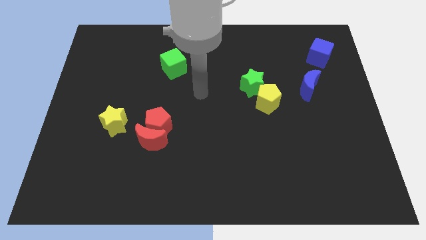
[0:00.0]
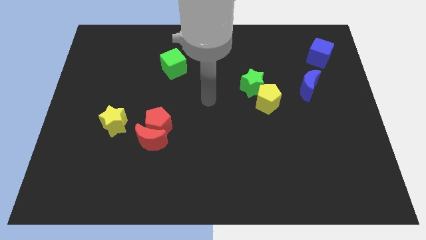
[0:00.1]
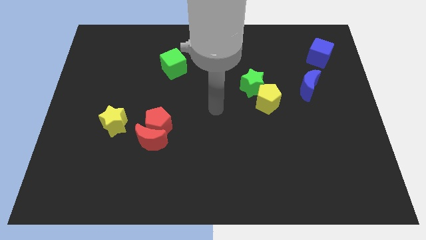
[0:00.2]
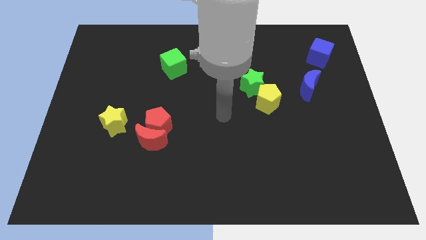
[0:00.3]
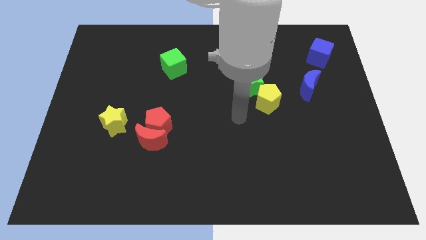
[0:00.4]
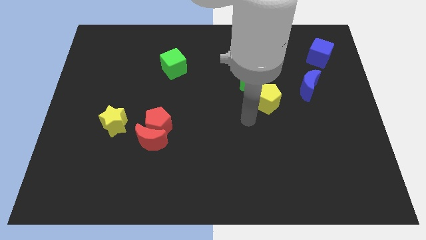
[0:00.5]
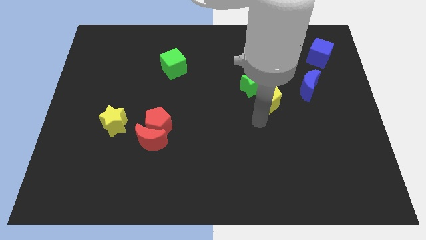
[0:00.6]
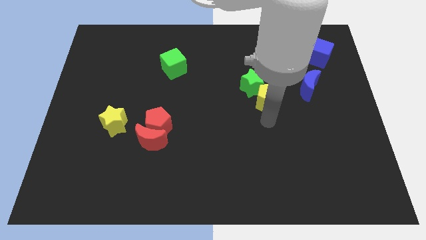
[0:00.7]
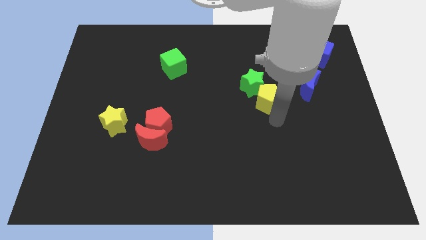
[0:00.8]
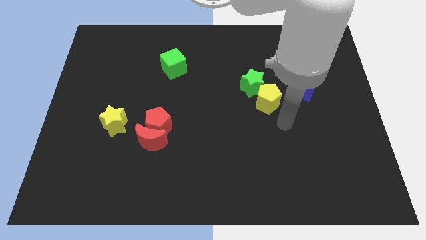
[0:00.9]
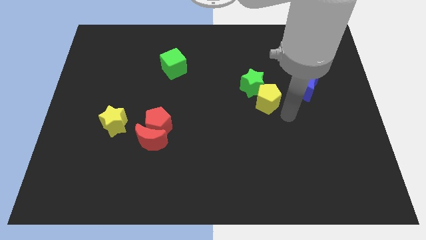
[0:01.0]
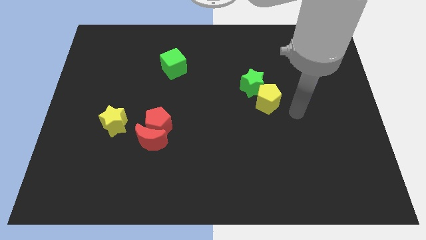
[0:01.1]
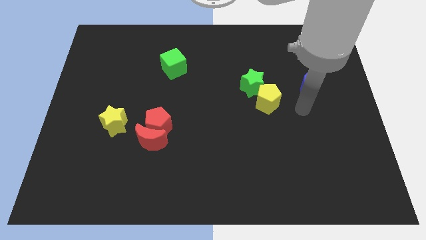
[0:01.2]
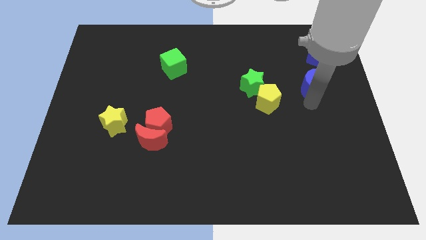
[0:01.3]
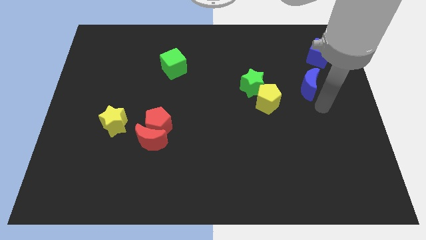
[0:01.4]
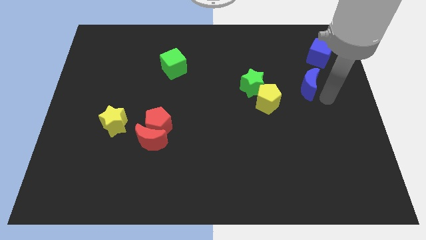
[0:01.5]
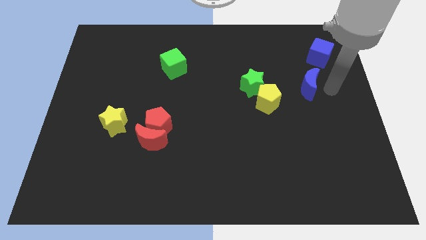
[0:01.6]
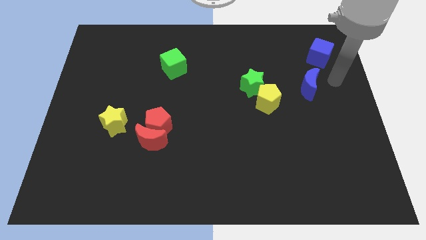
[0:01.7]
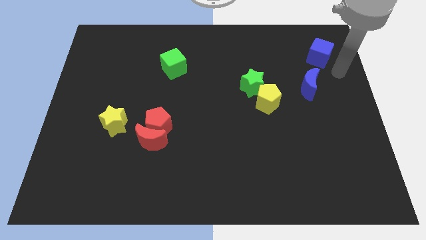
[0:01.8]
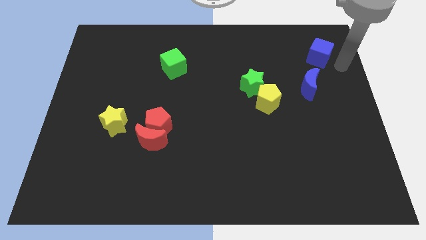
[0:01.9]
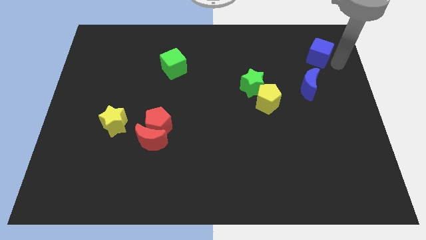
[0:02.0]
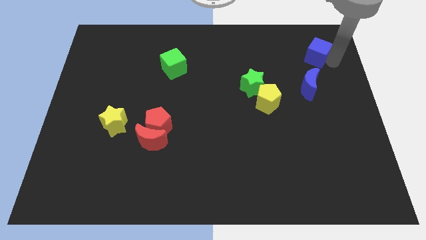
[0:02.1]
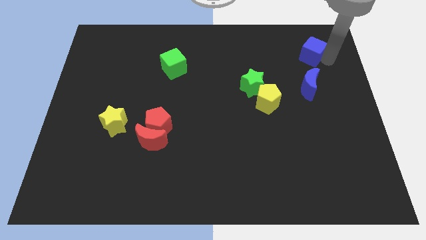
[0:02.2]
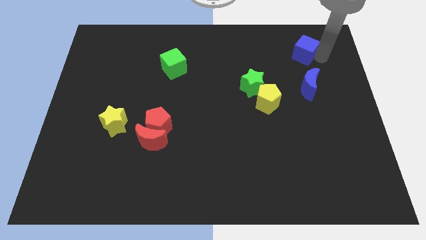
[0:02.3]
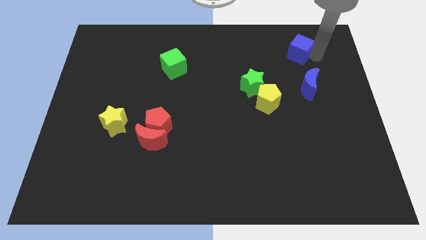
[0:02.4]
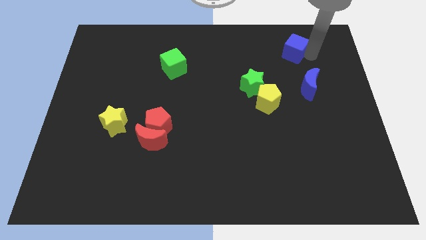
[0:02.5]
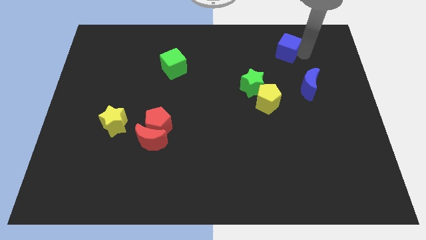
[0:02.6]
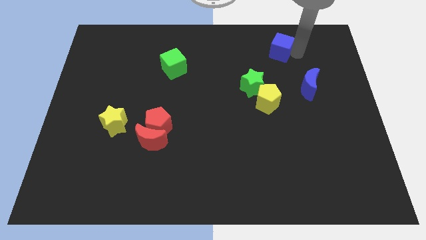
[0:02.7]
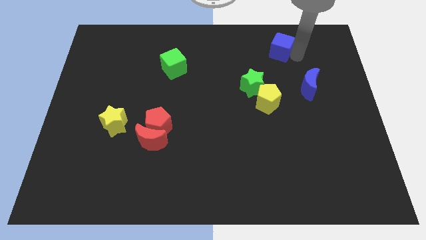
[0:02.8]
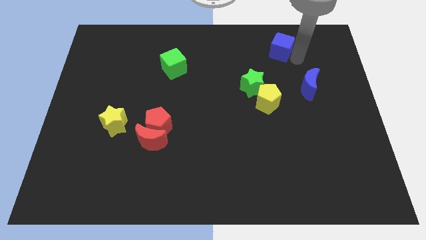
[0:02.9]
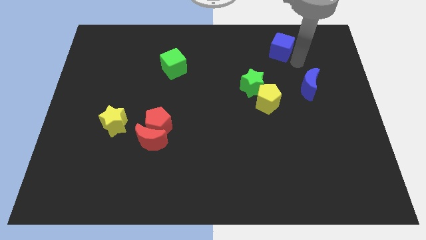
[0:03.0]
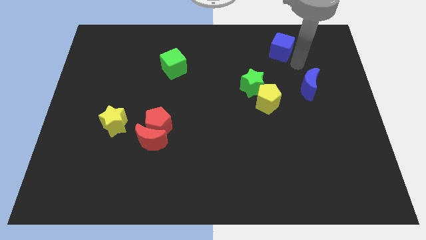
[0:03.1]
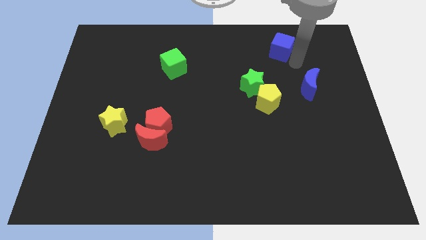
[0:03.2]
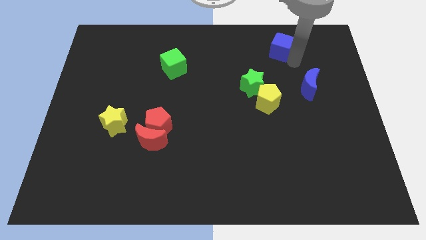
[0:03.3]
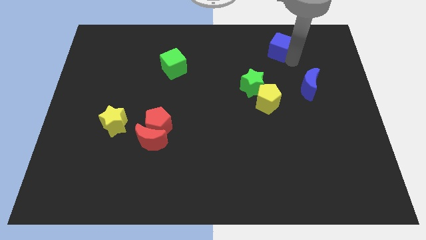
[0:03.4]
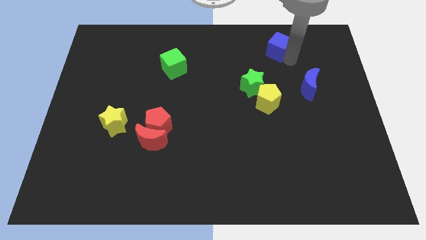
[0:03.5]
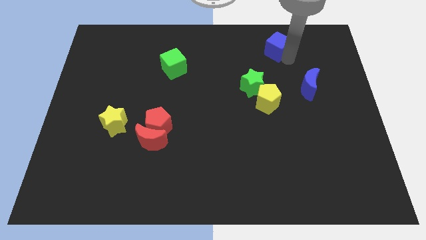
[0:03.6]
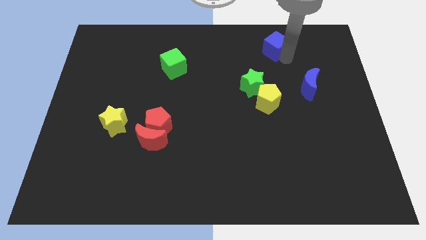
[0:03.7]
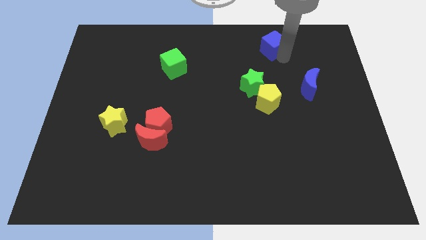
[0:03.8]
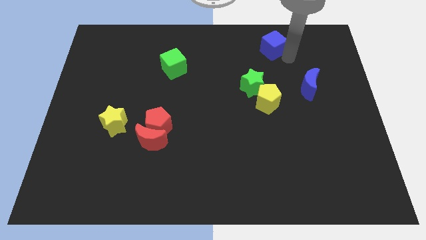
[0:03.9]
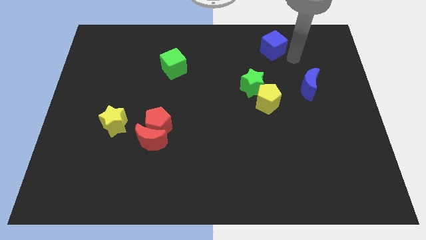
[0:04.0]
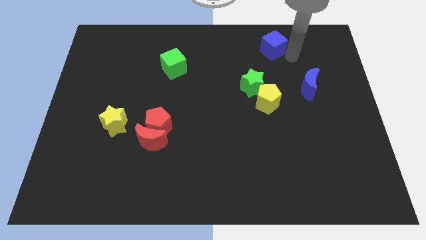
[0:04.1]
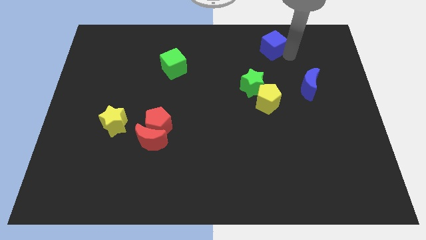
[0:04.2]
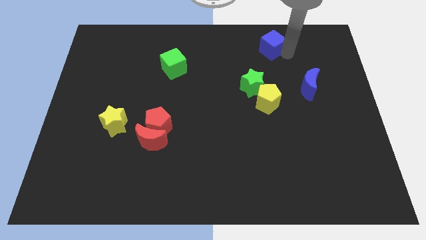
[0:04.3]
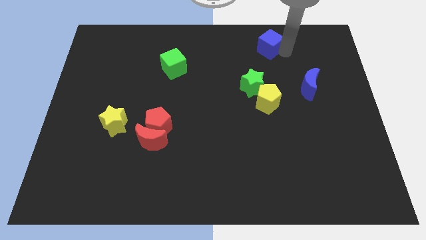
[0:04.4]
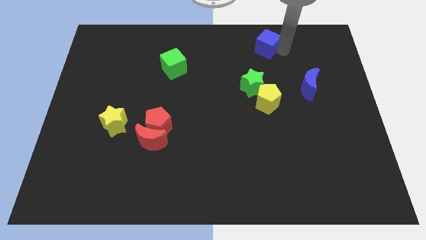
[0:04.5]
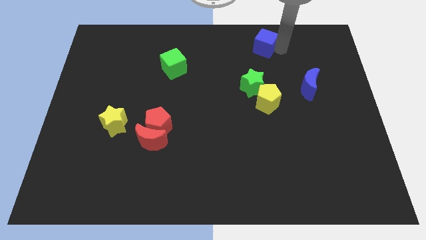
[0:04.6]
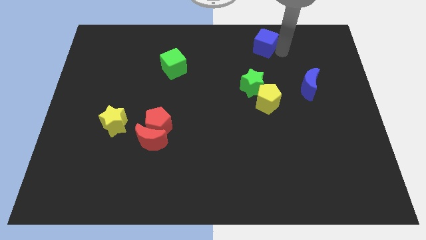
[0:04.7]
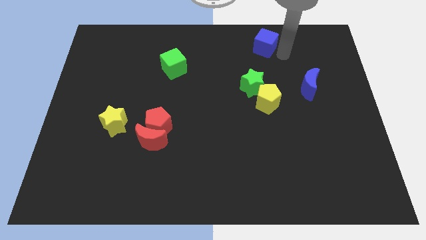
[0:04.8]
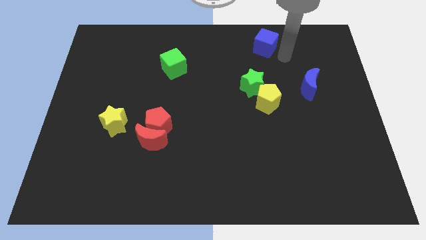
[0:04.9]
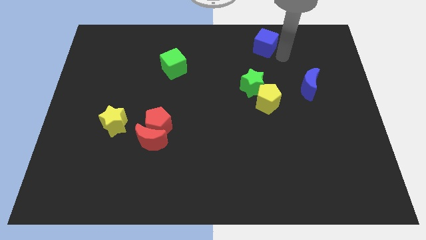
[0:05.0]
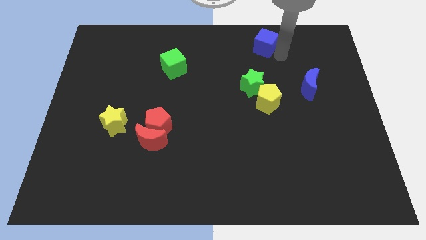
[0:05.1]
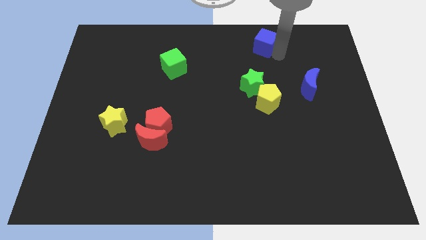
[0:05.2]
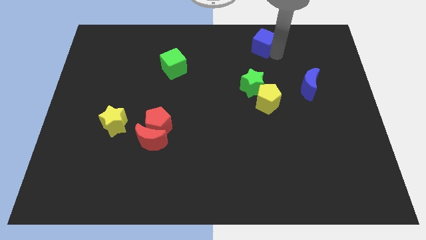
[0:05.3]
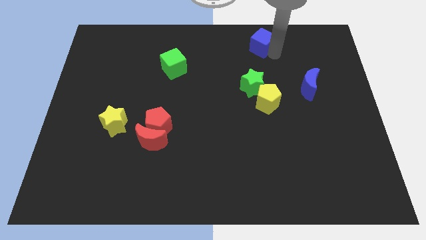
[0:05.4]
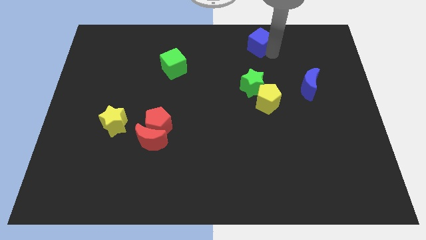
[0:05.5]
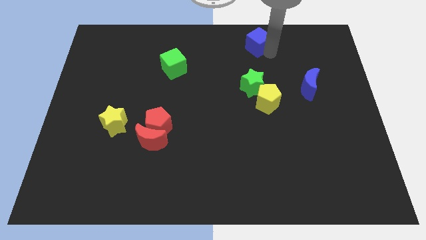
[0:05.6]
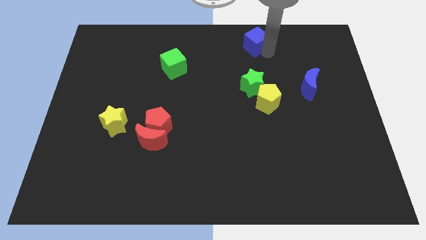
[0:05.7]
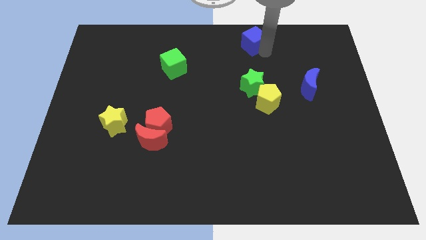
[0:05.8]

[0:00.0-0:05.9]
put the blue cube to the top

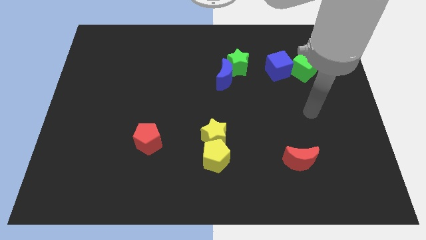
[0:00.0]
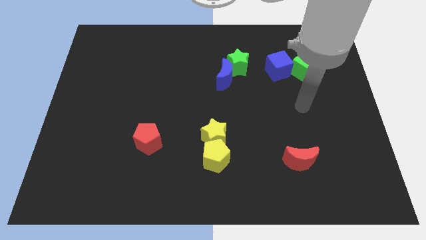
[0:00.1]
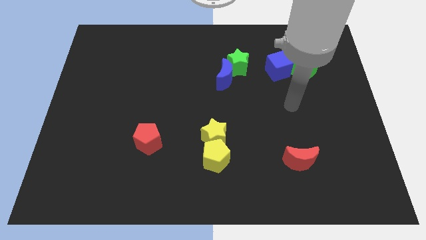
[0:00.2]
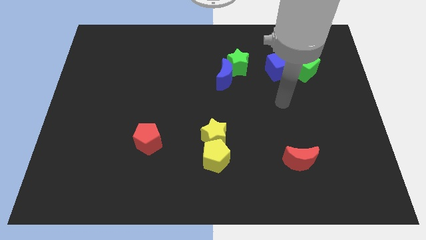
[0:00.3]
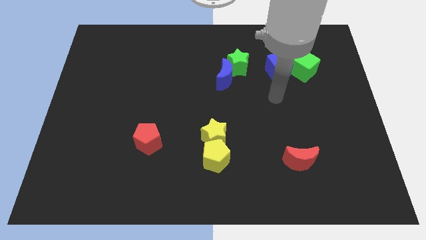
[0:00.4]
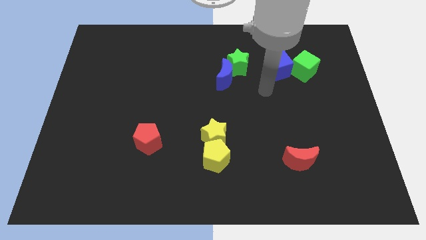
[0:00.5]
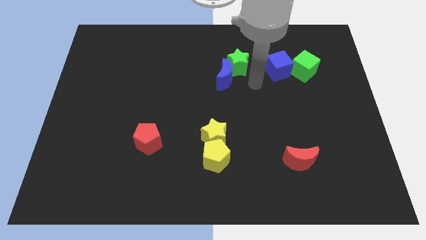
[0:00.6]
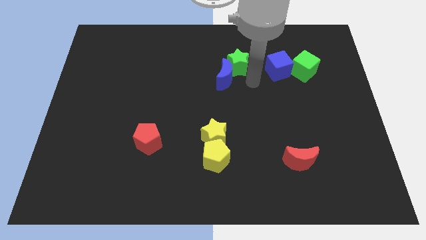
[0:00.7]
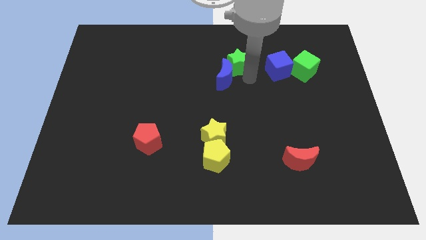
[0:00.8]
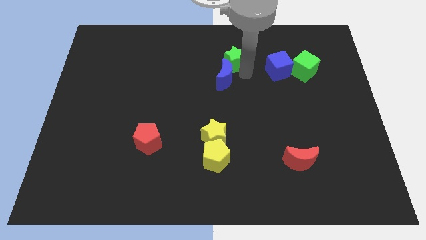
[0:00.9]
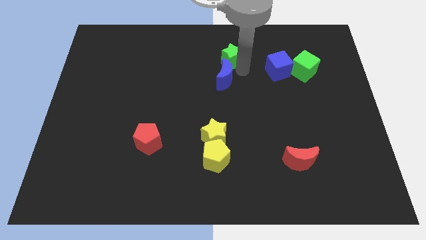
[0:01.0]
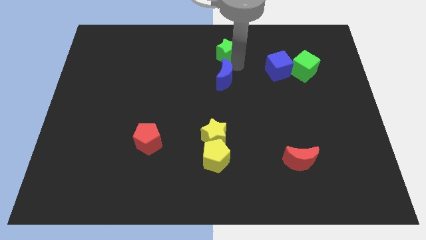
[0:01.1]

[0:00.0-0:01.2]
move the green star to the towards your base
